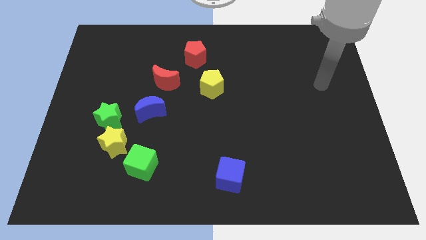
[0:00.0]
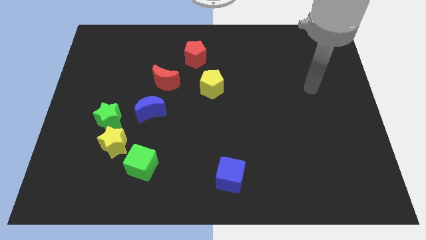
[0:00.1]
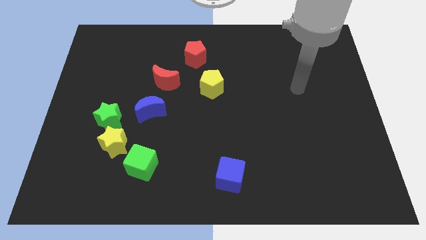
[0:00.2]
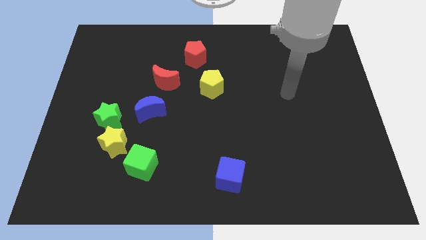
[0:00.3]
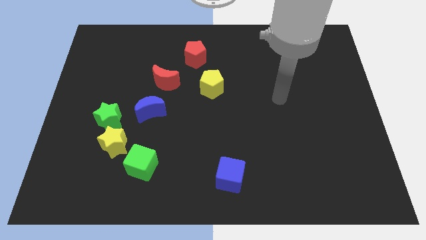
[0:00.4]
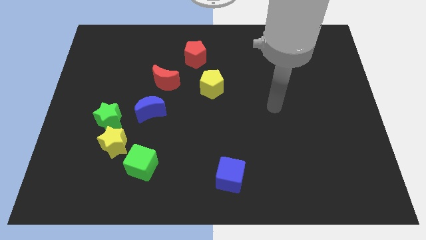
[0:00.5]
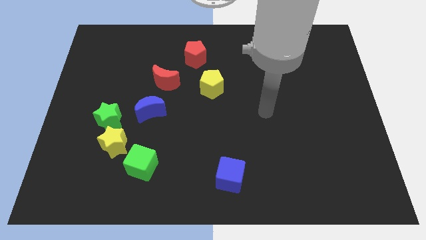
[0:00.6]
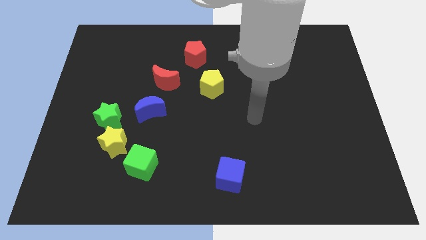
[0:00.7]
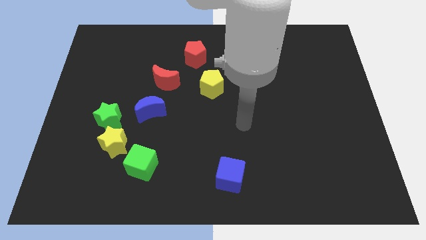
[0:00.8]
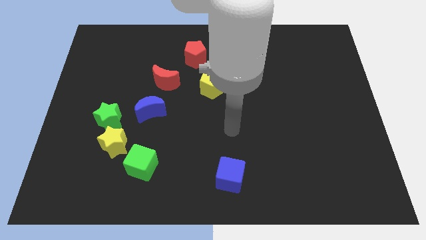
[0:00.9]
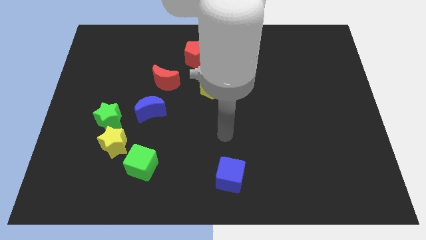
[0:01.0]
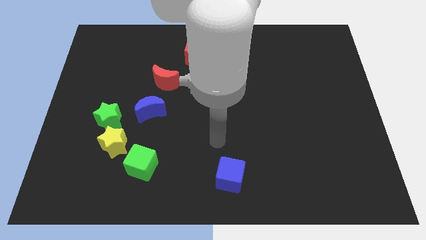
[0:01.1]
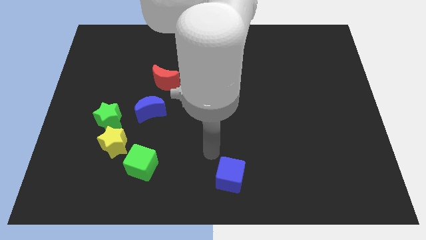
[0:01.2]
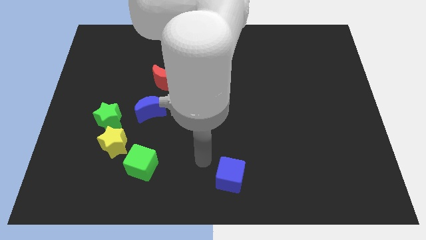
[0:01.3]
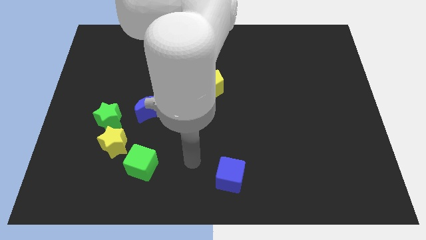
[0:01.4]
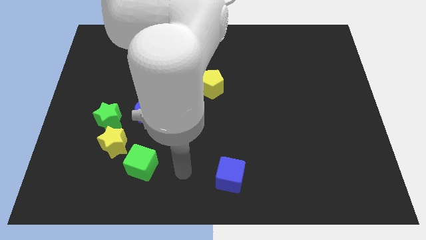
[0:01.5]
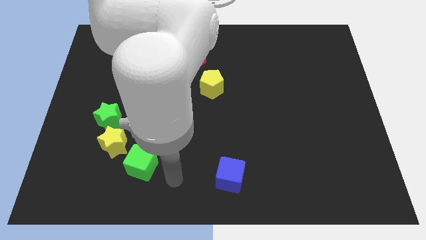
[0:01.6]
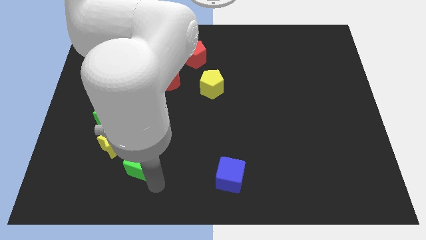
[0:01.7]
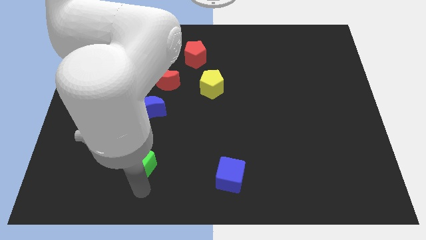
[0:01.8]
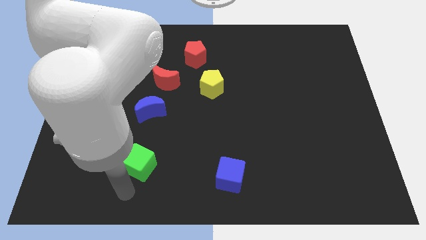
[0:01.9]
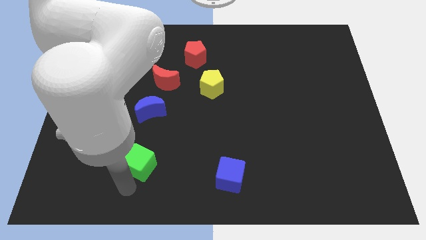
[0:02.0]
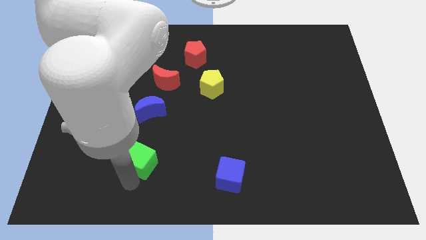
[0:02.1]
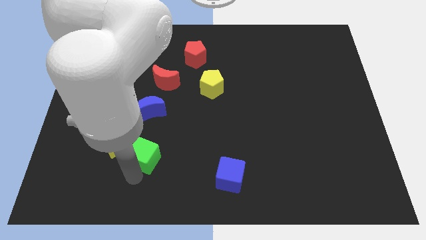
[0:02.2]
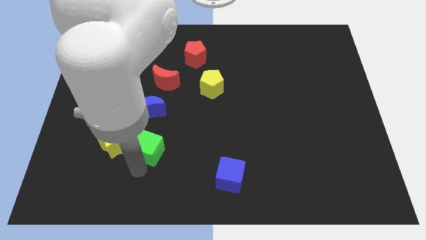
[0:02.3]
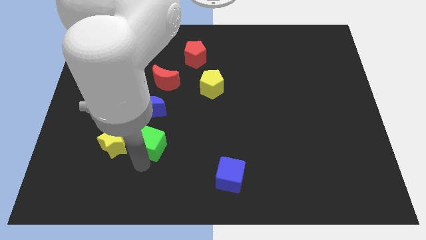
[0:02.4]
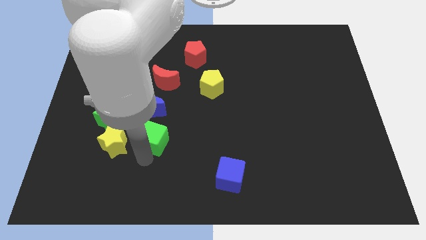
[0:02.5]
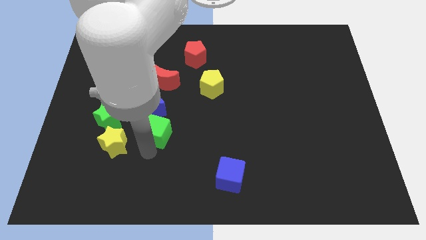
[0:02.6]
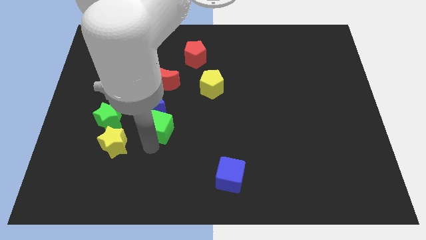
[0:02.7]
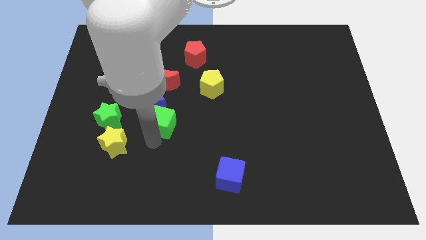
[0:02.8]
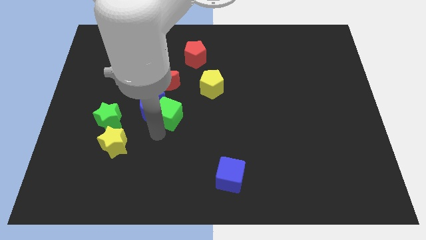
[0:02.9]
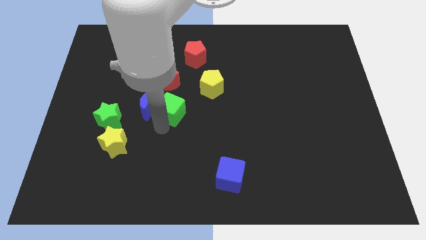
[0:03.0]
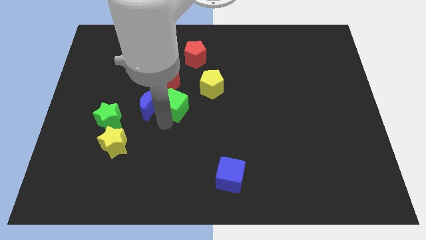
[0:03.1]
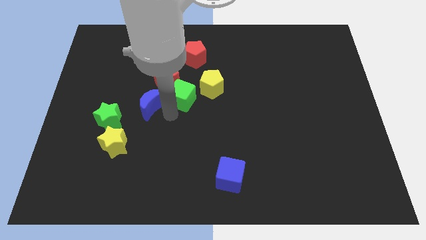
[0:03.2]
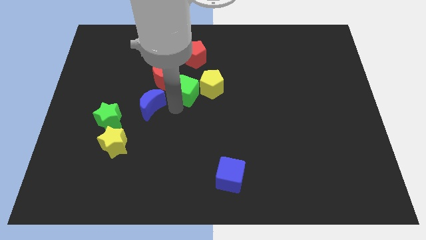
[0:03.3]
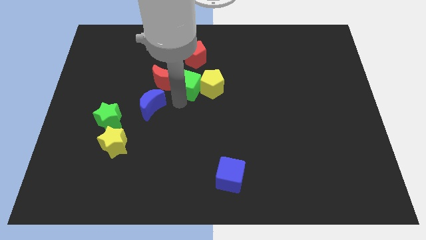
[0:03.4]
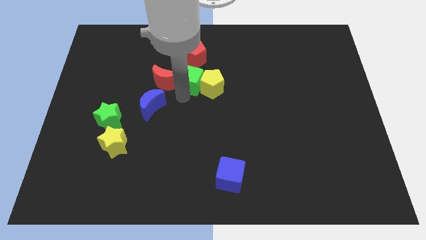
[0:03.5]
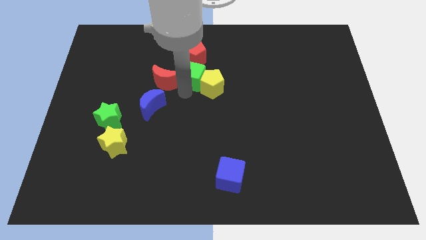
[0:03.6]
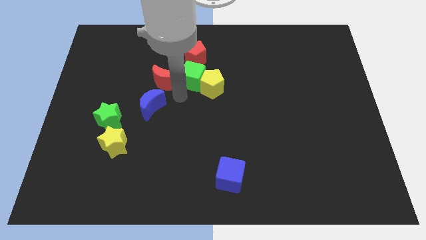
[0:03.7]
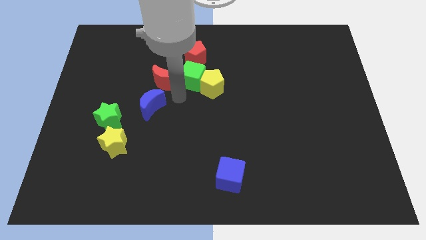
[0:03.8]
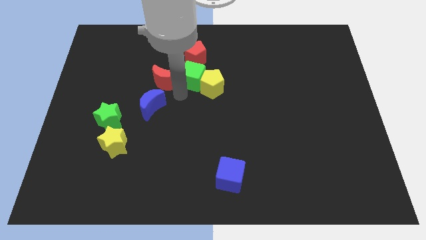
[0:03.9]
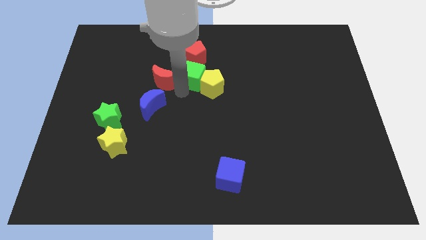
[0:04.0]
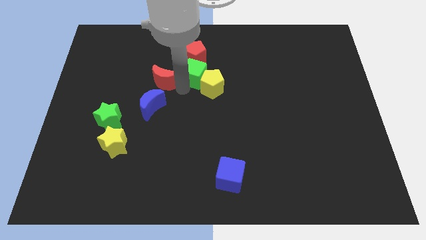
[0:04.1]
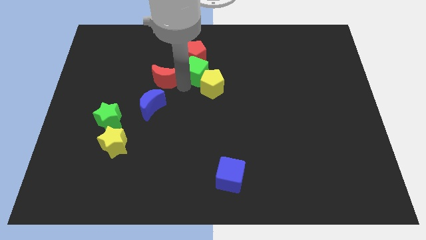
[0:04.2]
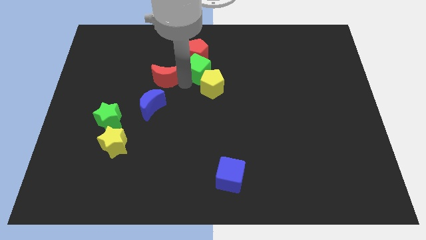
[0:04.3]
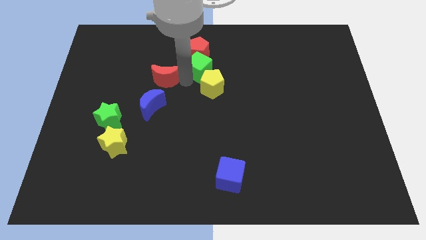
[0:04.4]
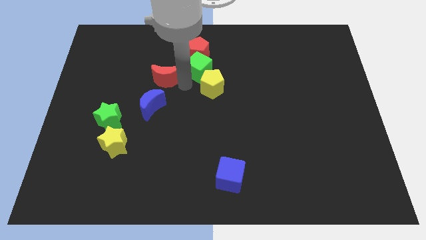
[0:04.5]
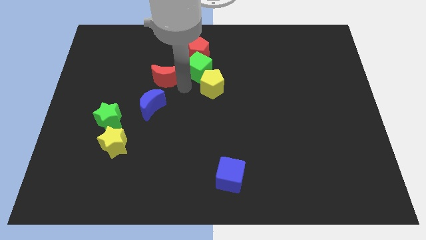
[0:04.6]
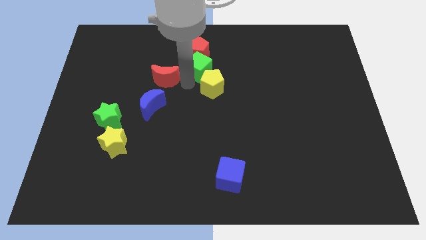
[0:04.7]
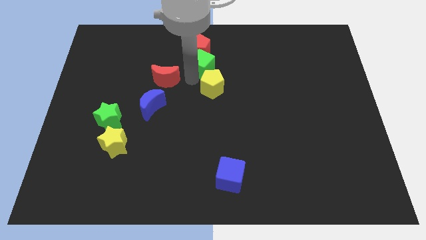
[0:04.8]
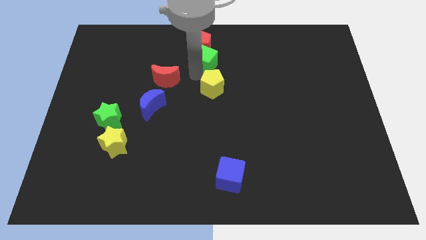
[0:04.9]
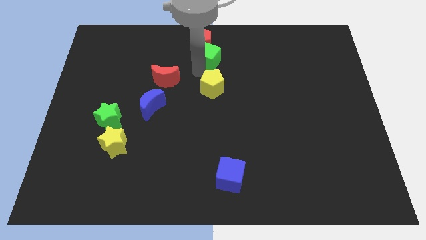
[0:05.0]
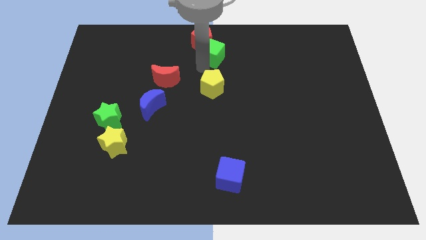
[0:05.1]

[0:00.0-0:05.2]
push the green cube to the top side

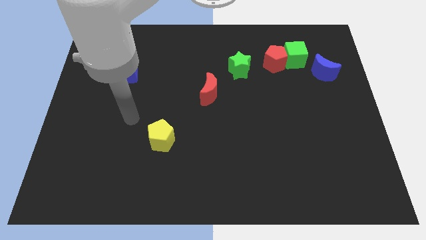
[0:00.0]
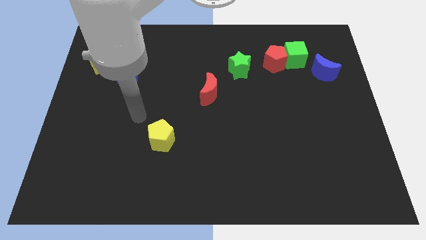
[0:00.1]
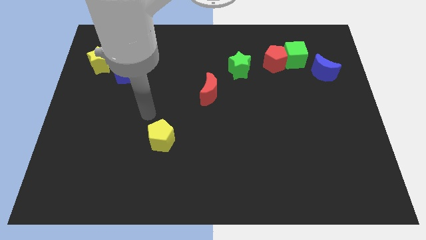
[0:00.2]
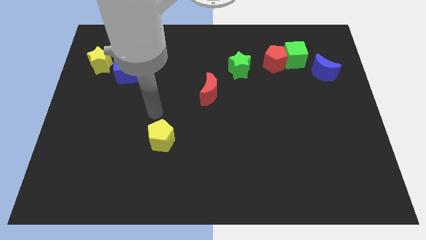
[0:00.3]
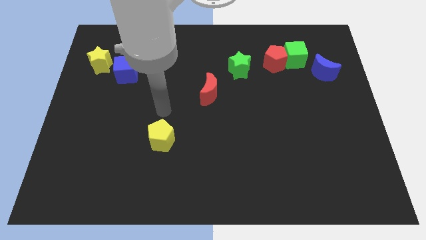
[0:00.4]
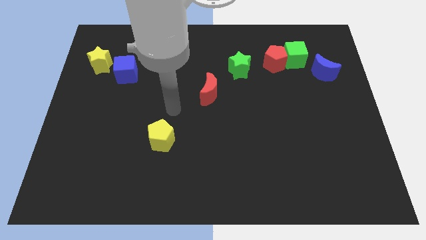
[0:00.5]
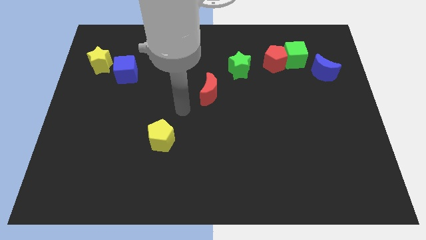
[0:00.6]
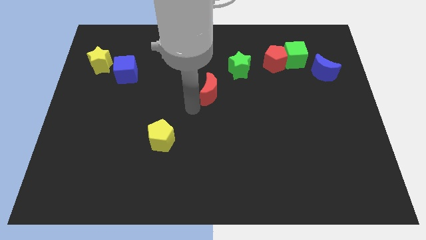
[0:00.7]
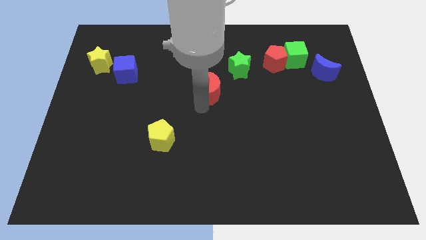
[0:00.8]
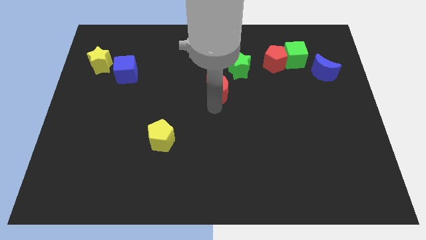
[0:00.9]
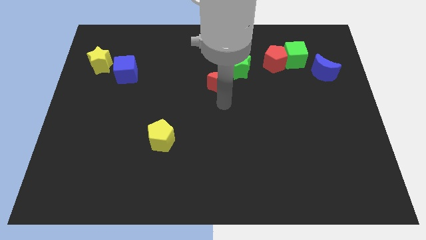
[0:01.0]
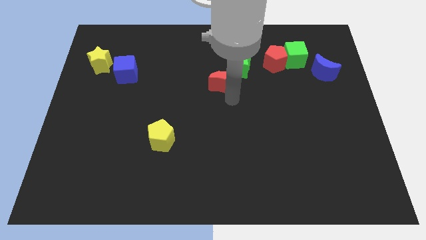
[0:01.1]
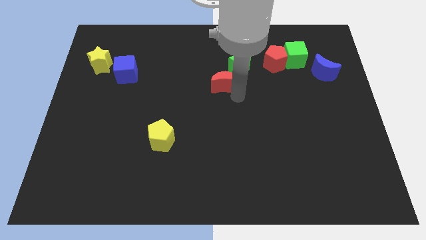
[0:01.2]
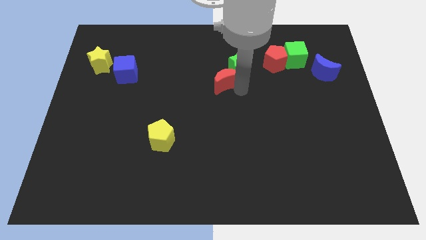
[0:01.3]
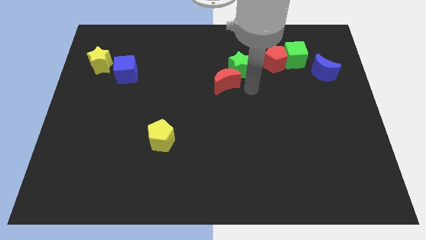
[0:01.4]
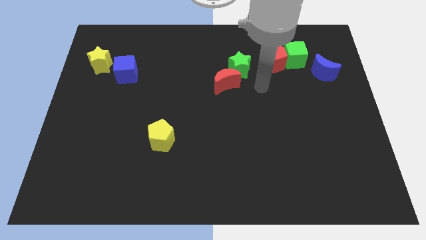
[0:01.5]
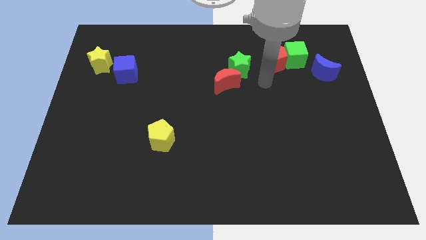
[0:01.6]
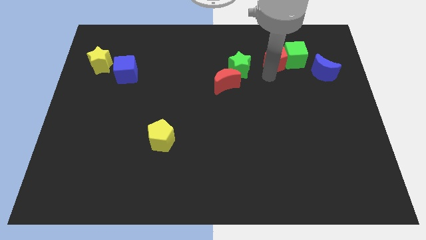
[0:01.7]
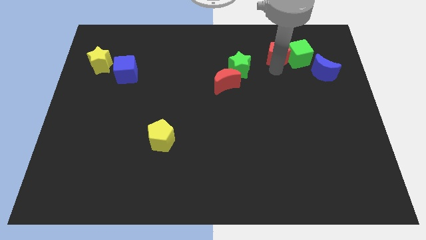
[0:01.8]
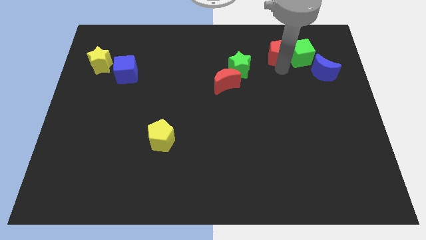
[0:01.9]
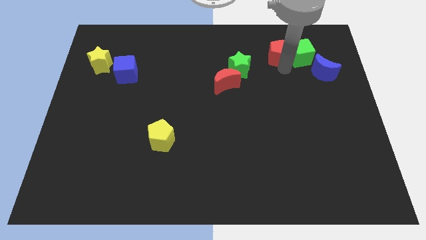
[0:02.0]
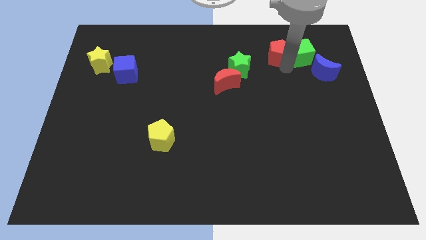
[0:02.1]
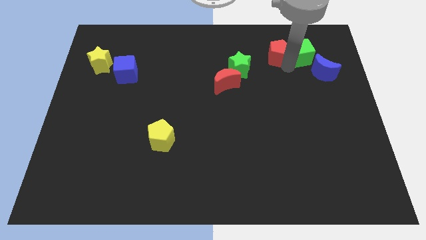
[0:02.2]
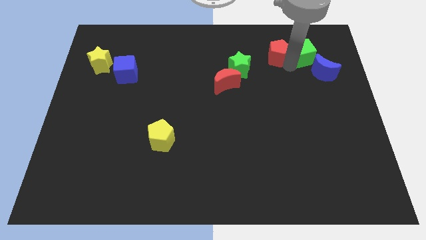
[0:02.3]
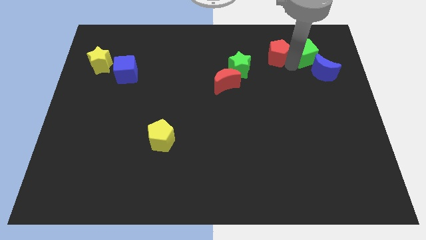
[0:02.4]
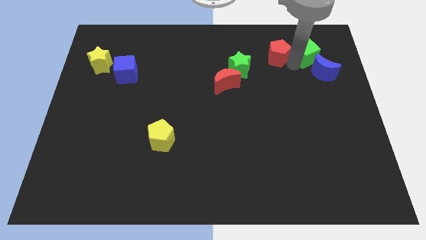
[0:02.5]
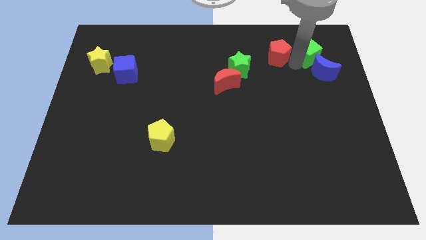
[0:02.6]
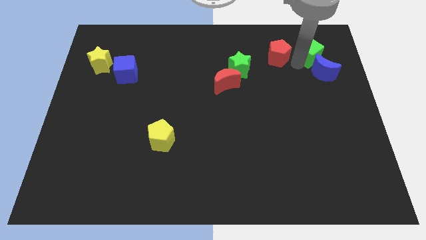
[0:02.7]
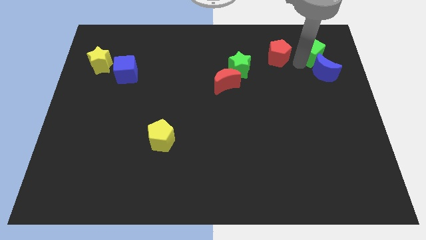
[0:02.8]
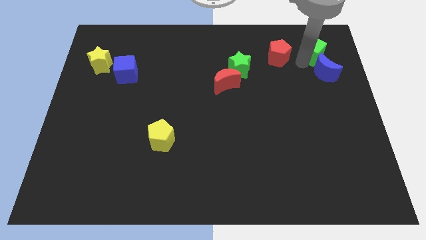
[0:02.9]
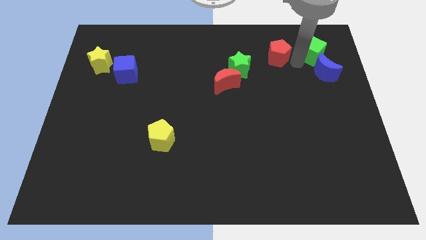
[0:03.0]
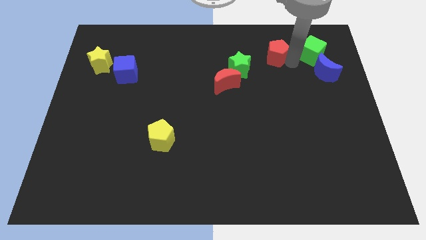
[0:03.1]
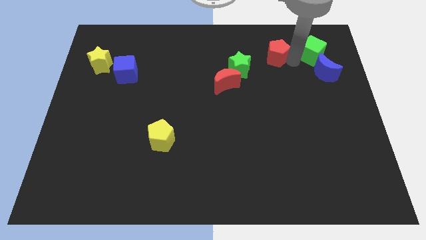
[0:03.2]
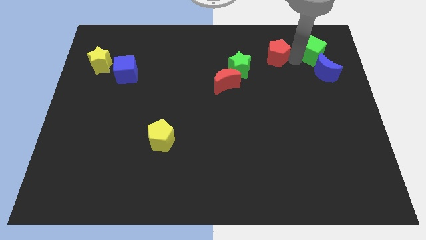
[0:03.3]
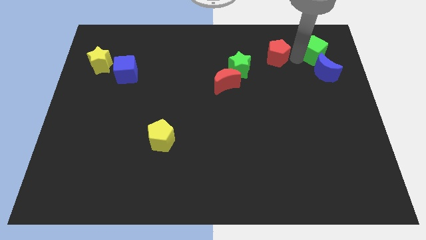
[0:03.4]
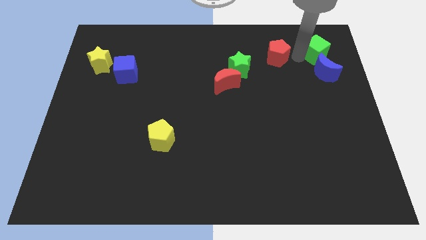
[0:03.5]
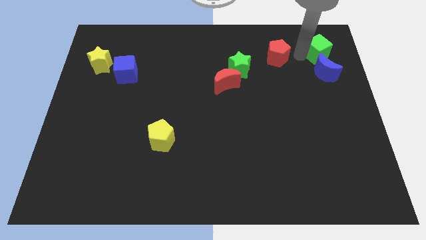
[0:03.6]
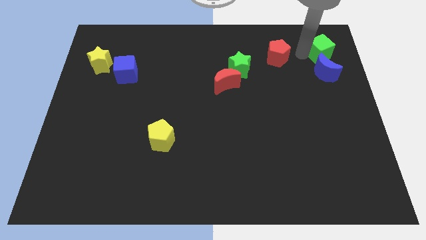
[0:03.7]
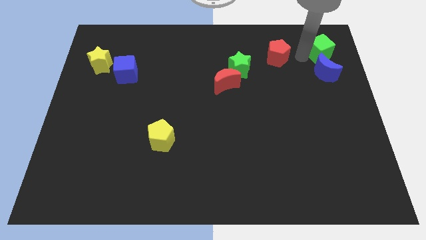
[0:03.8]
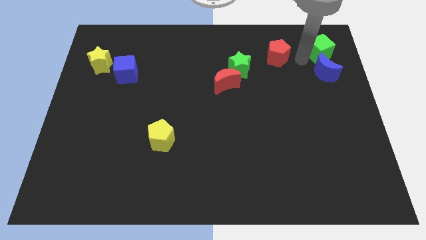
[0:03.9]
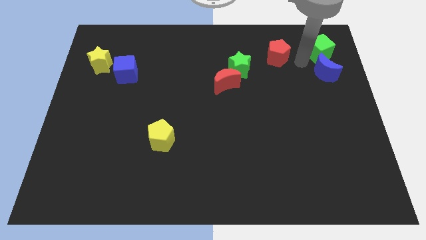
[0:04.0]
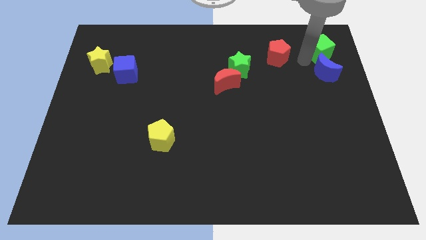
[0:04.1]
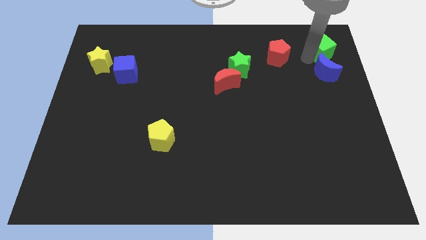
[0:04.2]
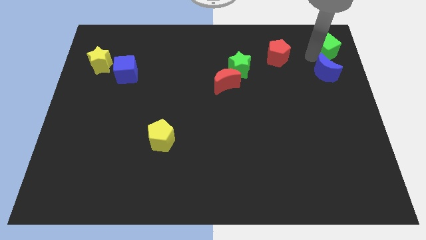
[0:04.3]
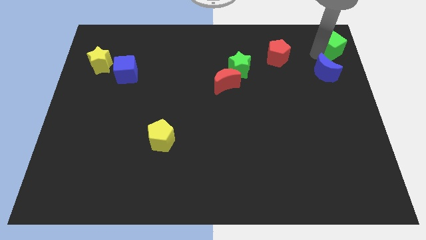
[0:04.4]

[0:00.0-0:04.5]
put the green cube to the upper right corner
